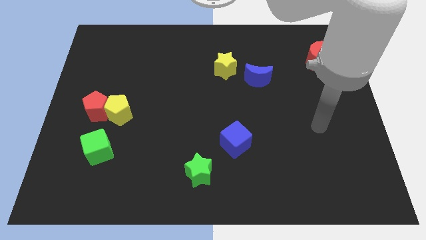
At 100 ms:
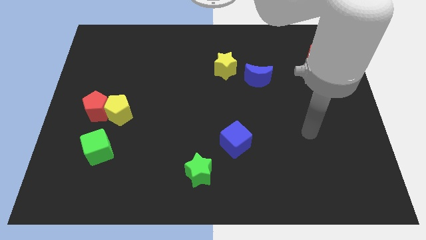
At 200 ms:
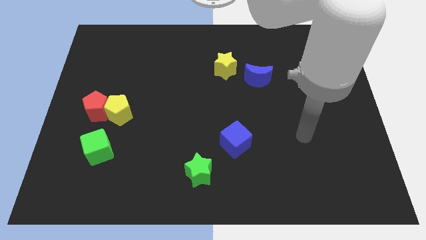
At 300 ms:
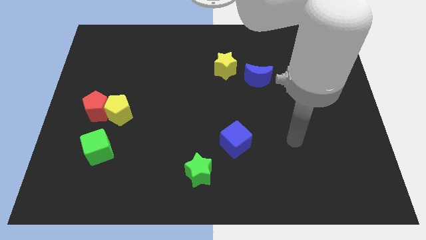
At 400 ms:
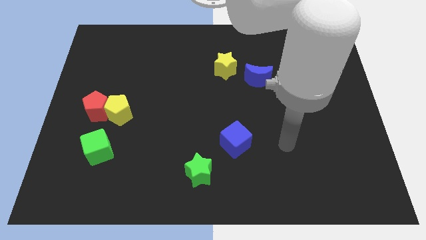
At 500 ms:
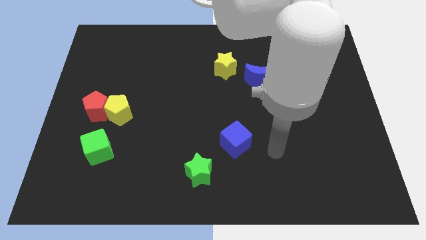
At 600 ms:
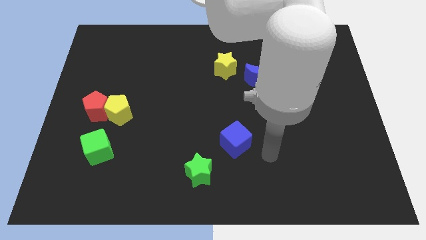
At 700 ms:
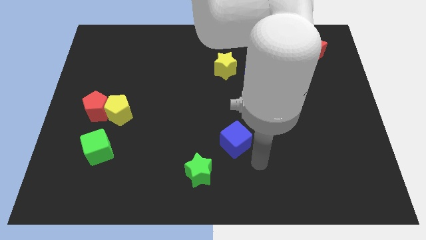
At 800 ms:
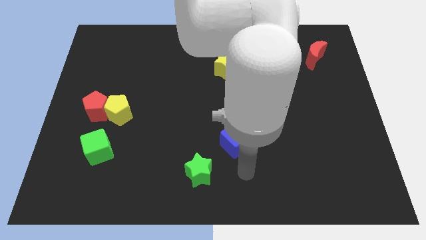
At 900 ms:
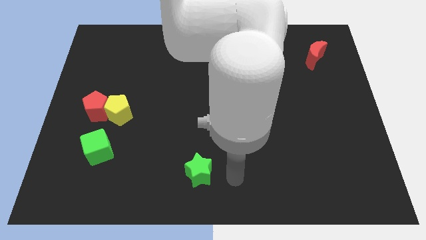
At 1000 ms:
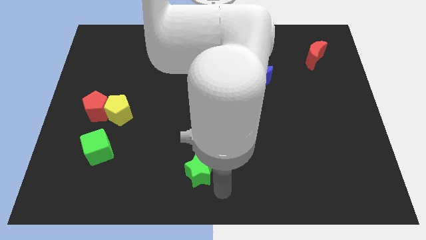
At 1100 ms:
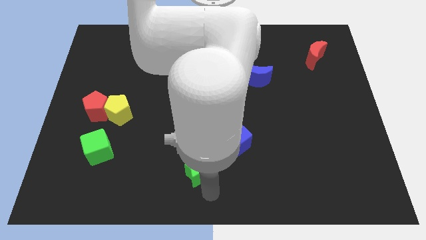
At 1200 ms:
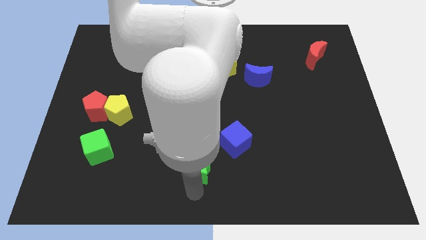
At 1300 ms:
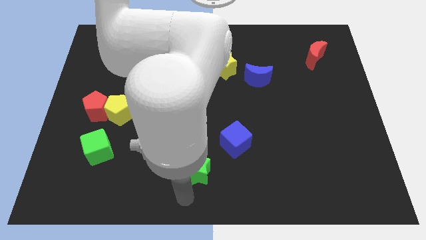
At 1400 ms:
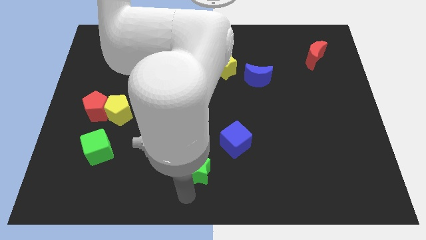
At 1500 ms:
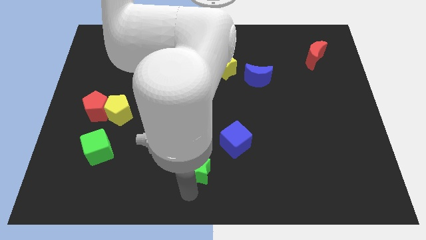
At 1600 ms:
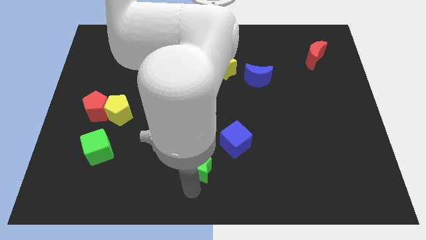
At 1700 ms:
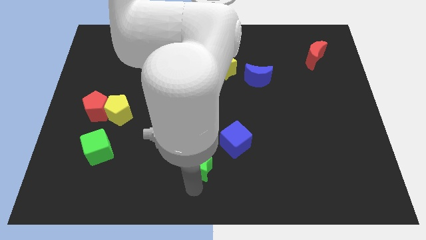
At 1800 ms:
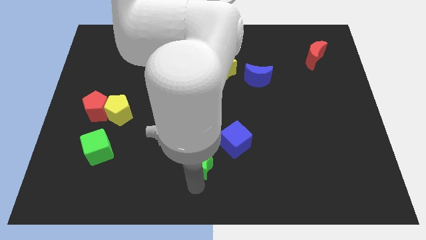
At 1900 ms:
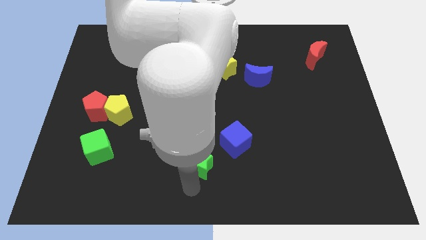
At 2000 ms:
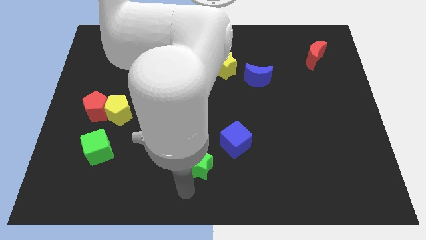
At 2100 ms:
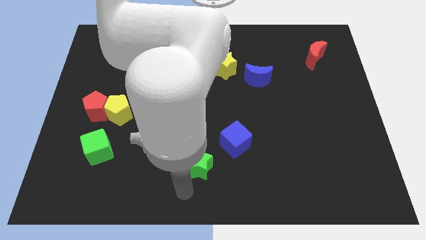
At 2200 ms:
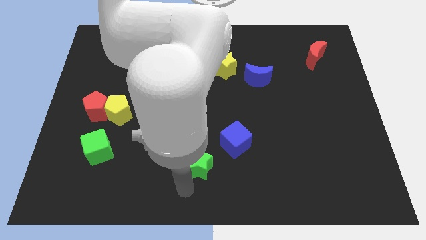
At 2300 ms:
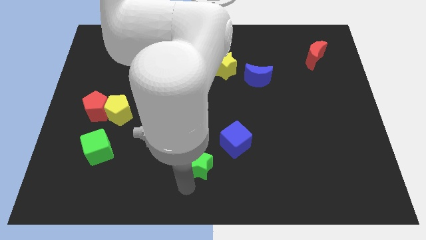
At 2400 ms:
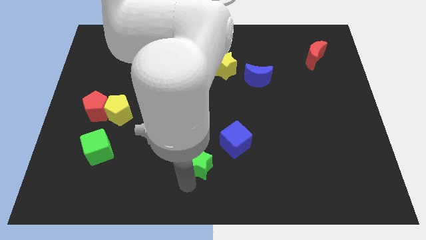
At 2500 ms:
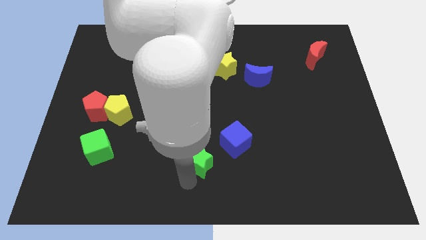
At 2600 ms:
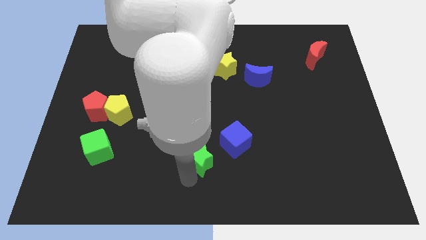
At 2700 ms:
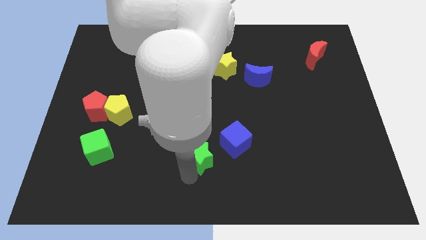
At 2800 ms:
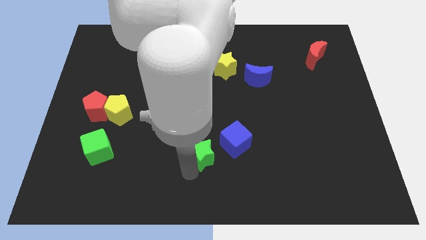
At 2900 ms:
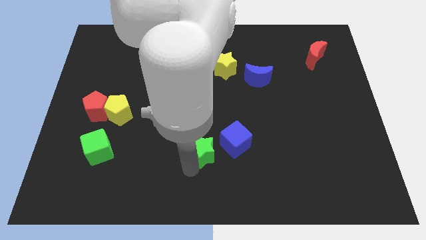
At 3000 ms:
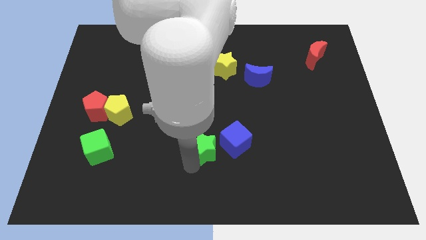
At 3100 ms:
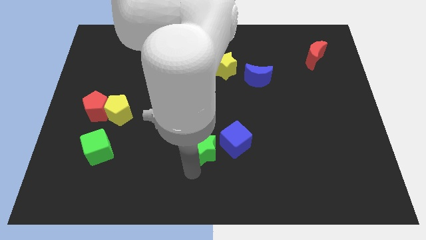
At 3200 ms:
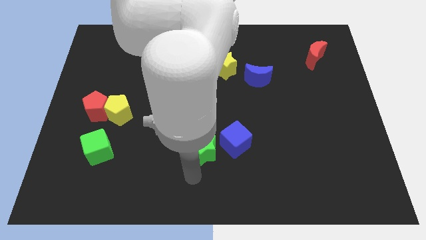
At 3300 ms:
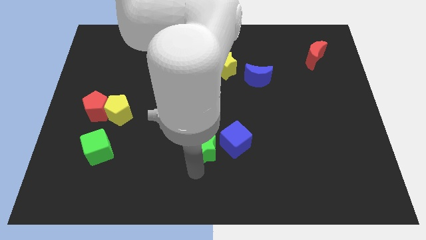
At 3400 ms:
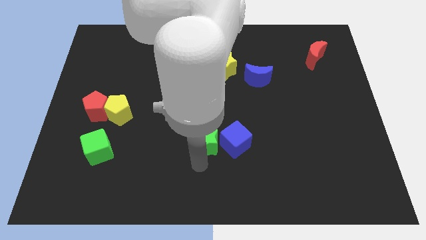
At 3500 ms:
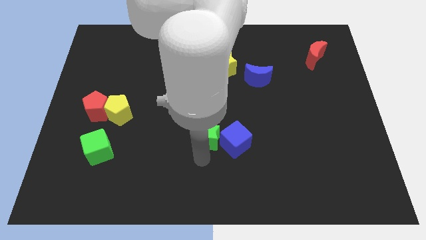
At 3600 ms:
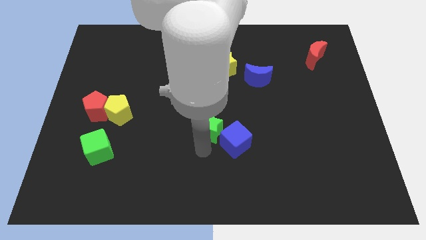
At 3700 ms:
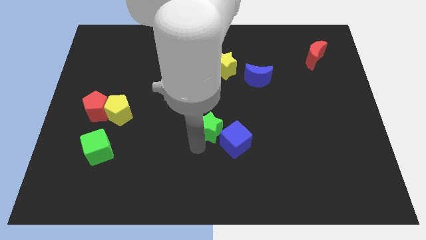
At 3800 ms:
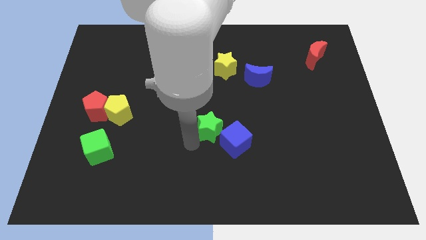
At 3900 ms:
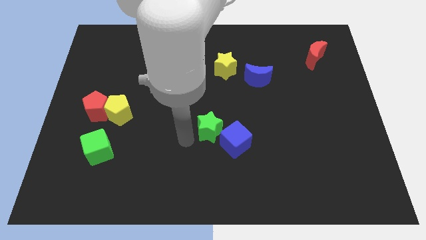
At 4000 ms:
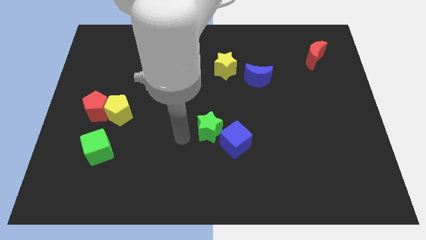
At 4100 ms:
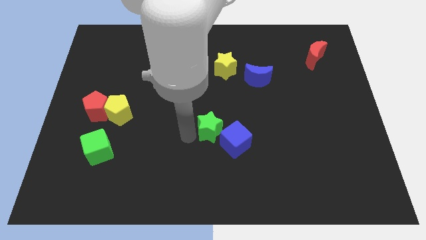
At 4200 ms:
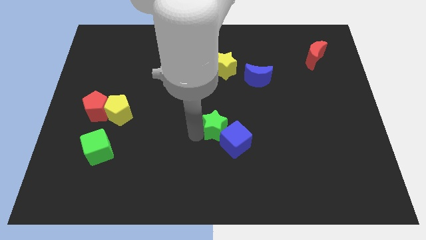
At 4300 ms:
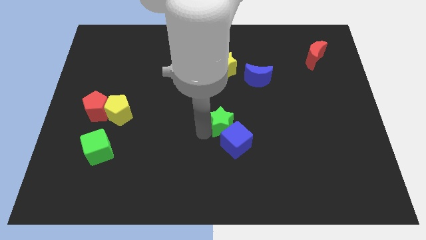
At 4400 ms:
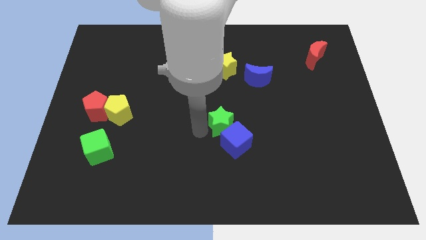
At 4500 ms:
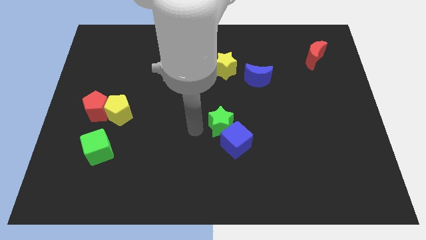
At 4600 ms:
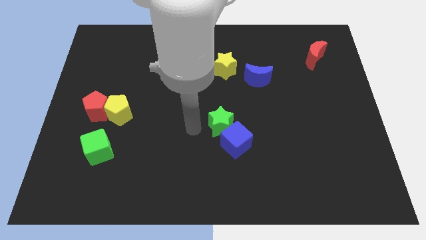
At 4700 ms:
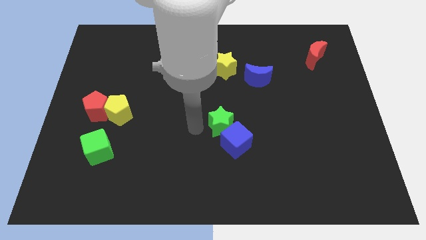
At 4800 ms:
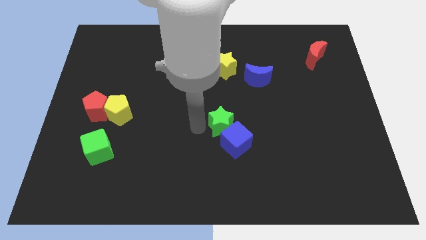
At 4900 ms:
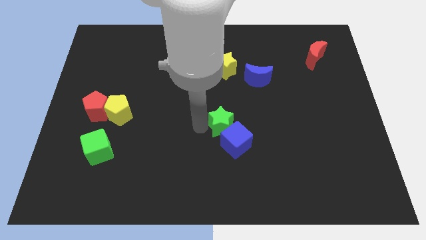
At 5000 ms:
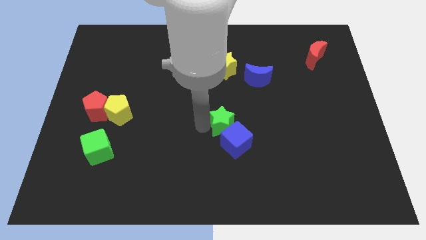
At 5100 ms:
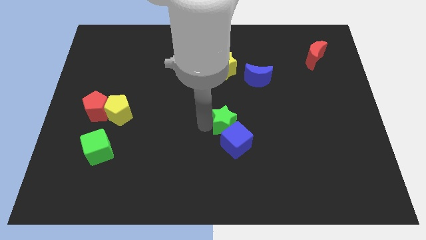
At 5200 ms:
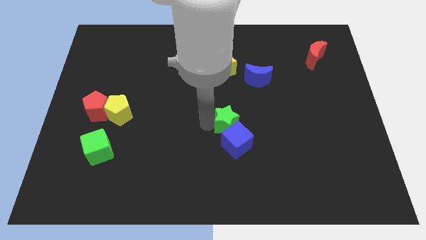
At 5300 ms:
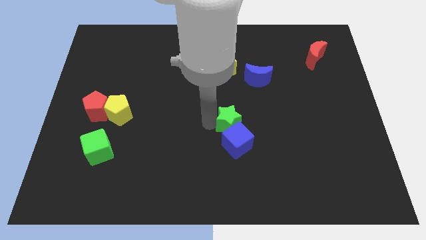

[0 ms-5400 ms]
move the green star to the top right side of the blue cube
